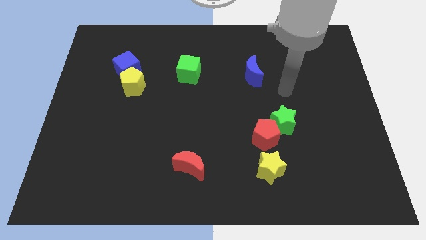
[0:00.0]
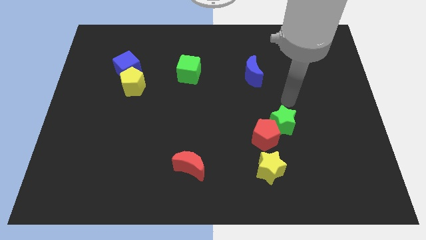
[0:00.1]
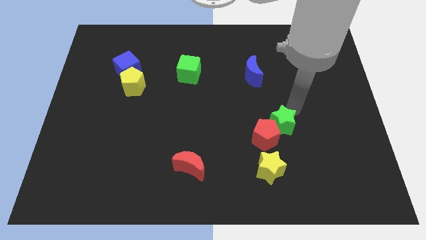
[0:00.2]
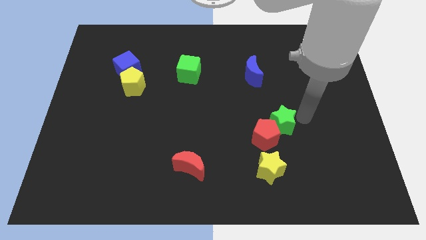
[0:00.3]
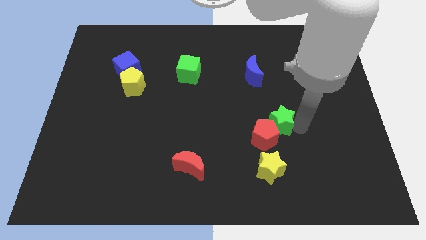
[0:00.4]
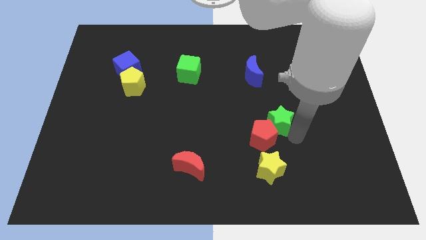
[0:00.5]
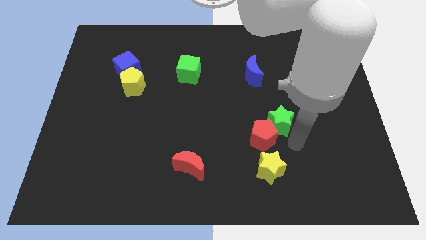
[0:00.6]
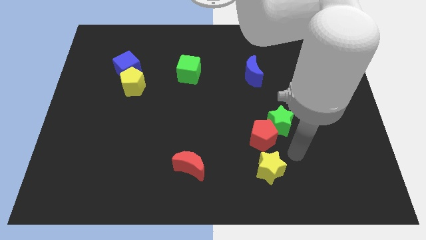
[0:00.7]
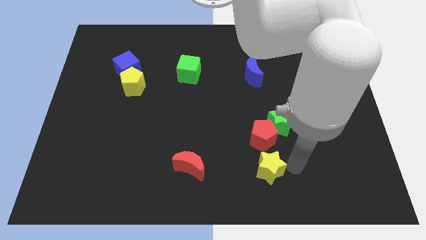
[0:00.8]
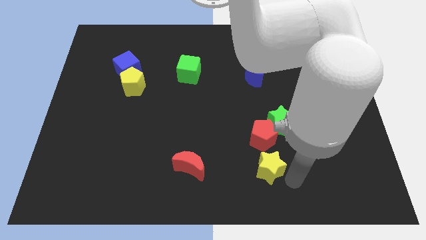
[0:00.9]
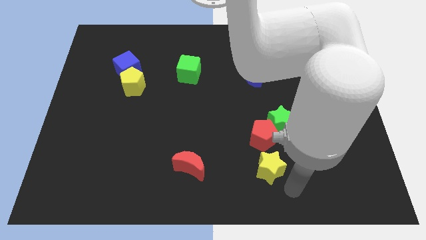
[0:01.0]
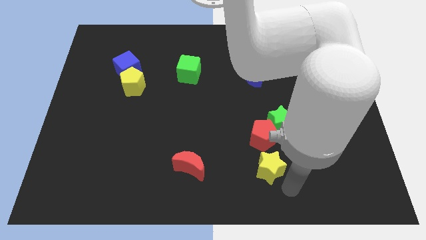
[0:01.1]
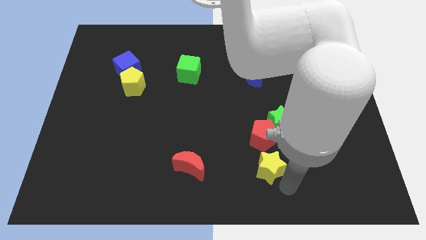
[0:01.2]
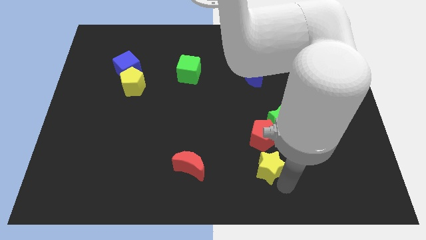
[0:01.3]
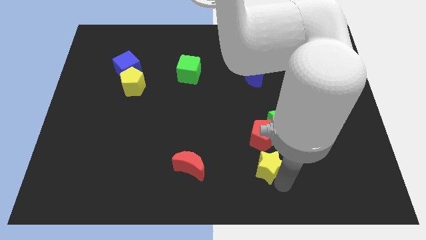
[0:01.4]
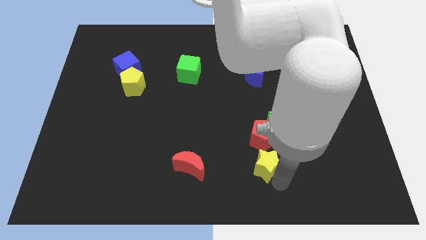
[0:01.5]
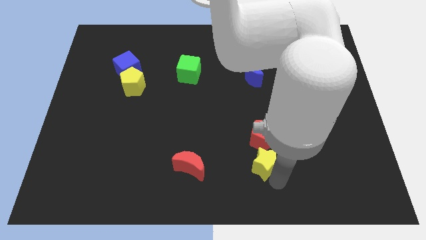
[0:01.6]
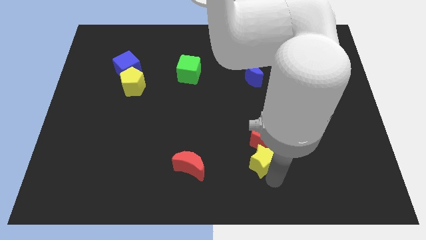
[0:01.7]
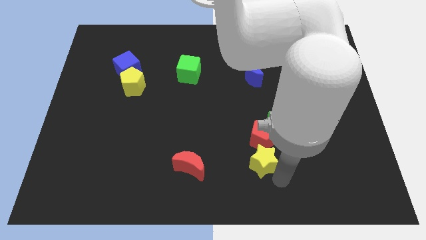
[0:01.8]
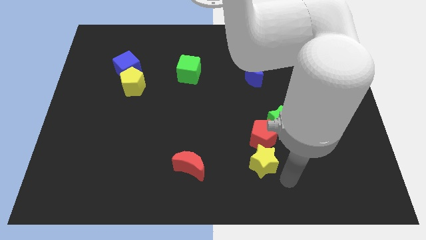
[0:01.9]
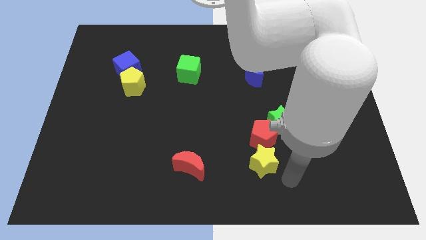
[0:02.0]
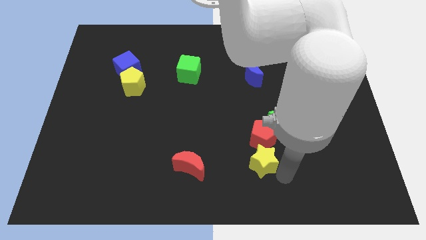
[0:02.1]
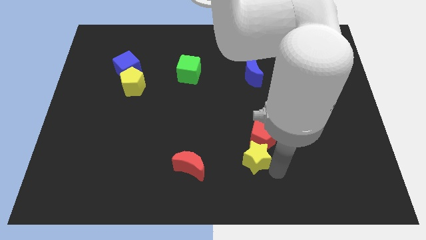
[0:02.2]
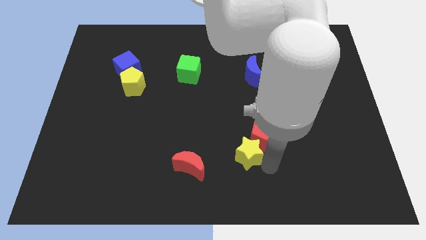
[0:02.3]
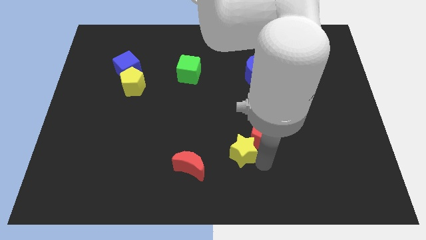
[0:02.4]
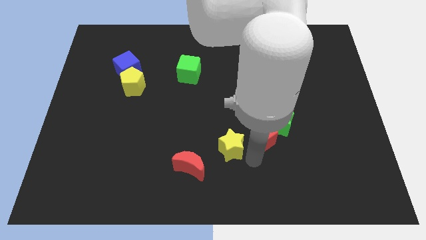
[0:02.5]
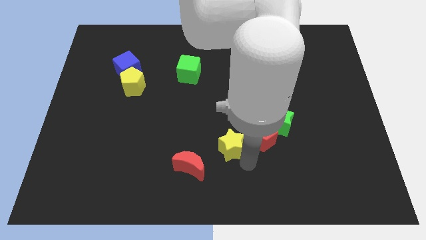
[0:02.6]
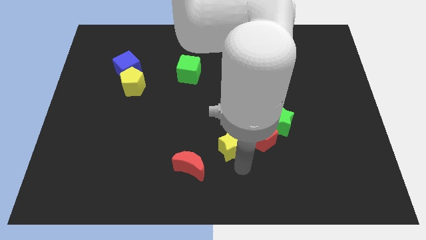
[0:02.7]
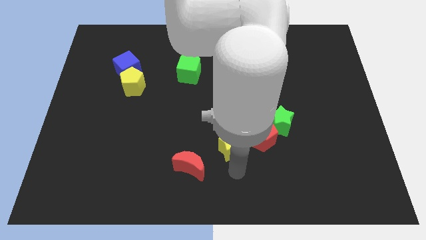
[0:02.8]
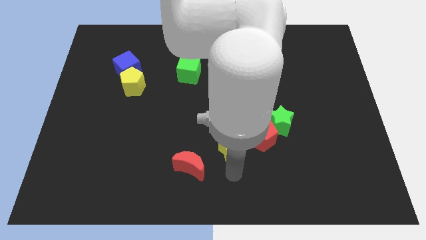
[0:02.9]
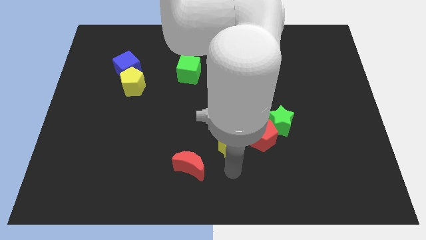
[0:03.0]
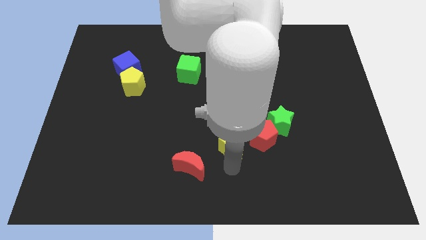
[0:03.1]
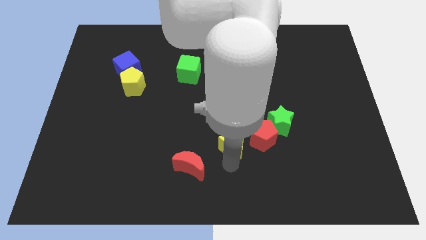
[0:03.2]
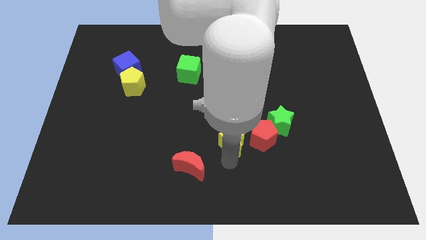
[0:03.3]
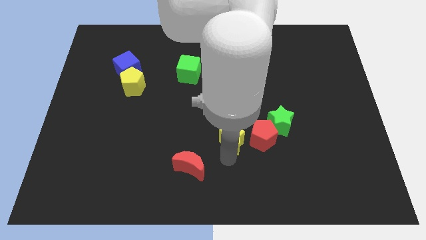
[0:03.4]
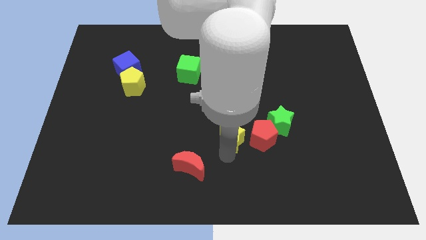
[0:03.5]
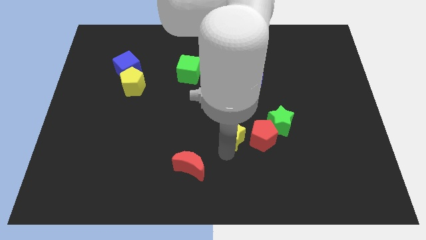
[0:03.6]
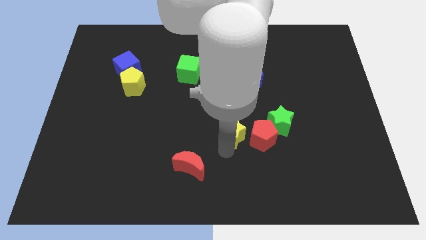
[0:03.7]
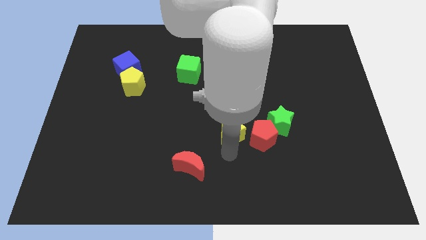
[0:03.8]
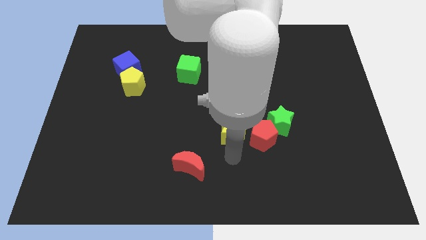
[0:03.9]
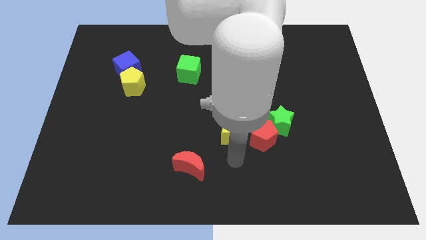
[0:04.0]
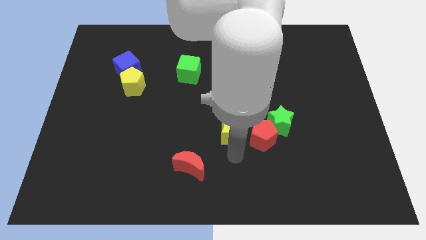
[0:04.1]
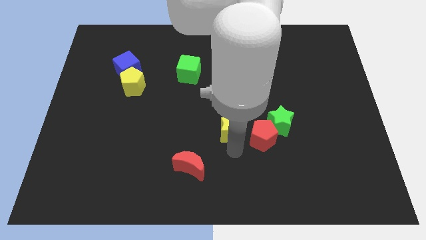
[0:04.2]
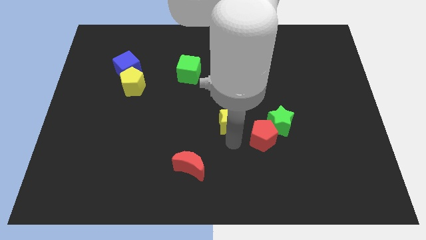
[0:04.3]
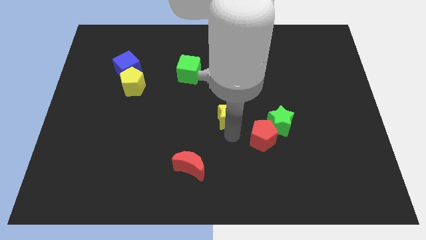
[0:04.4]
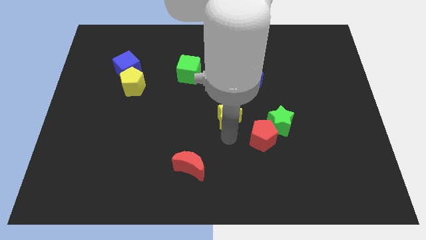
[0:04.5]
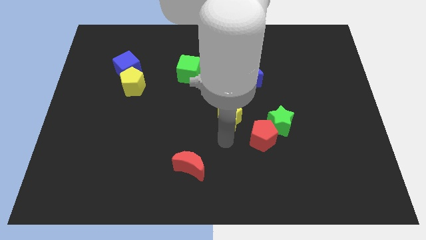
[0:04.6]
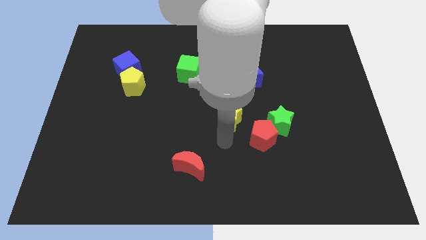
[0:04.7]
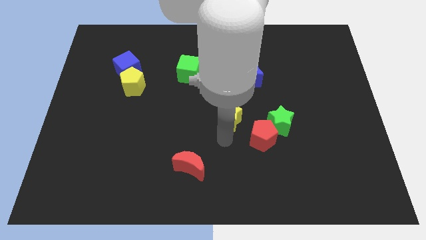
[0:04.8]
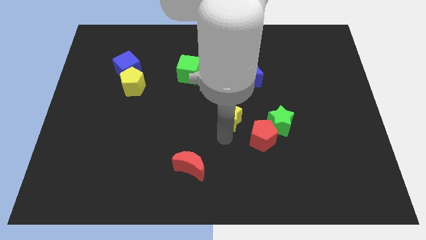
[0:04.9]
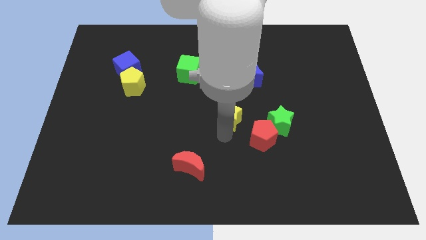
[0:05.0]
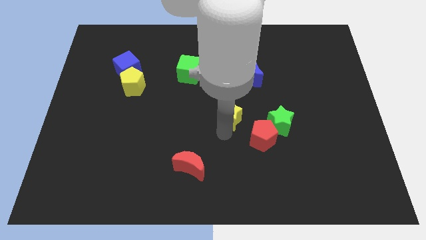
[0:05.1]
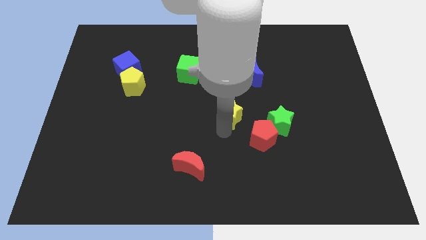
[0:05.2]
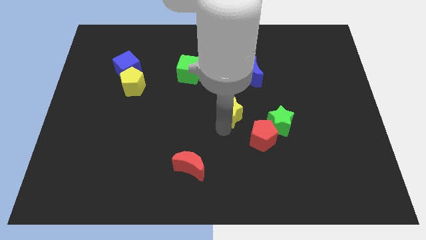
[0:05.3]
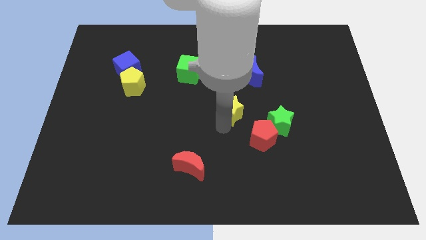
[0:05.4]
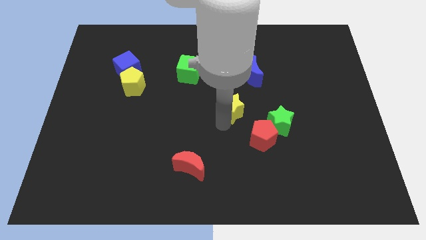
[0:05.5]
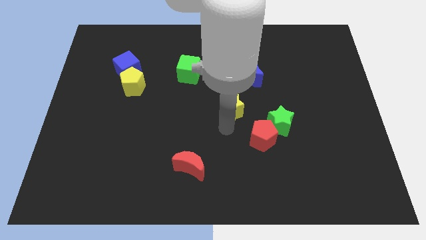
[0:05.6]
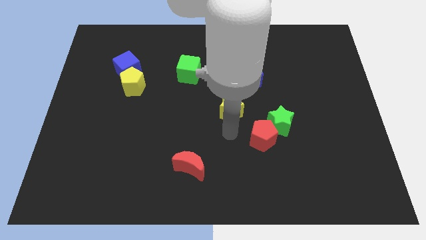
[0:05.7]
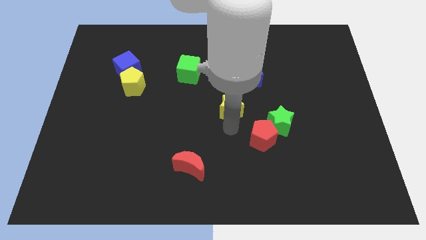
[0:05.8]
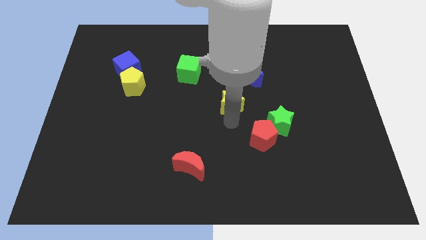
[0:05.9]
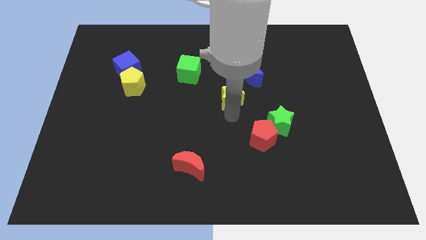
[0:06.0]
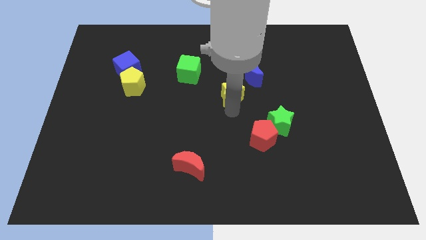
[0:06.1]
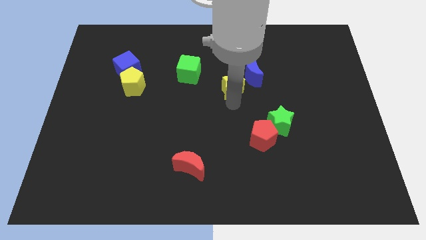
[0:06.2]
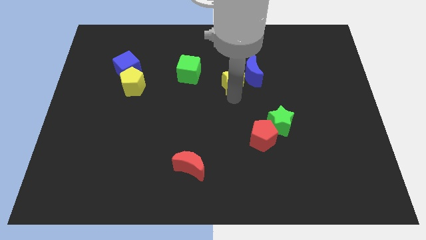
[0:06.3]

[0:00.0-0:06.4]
slide the yellow star to the right of the green cube

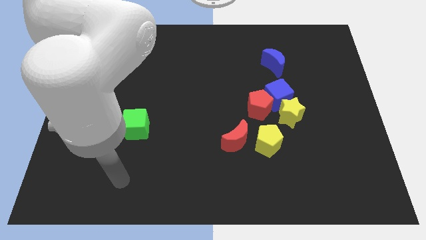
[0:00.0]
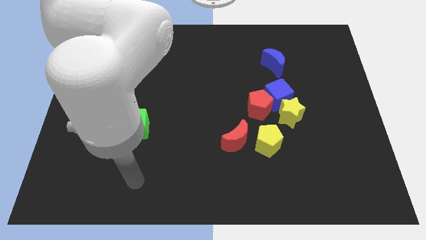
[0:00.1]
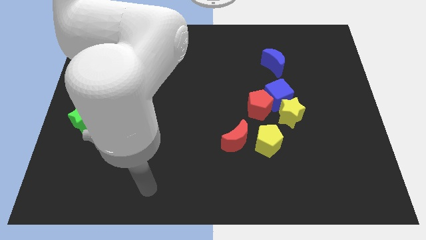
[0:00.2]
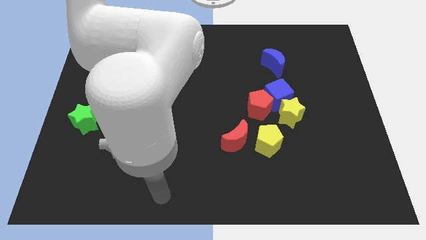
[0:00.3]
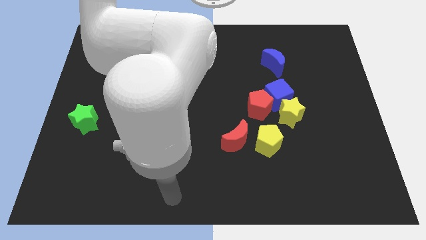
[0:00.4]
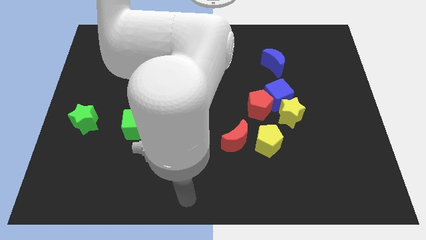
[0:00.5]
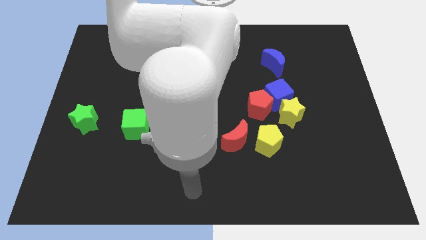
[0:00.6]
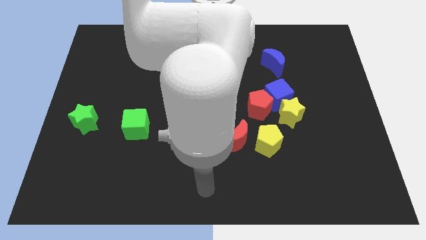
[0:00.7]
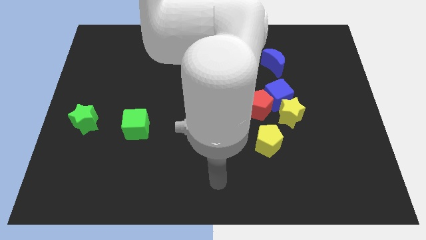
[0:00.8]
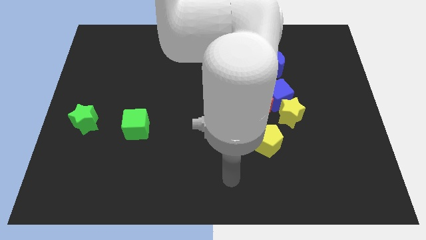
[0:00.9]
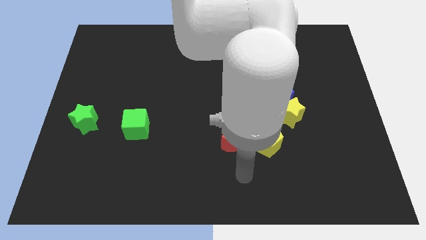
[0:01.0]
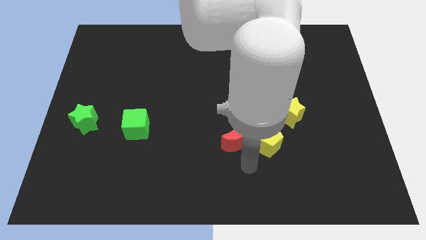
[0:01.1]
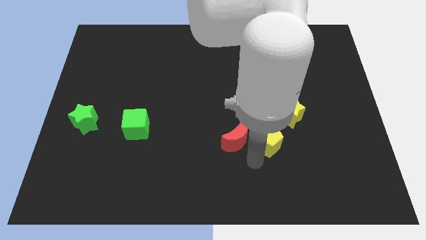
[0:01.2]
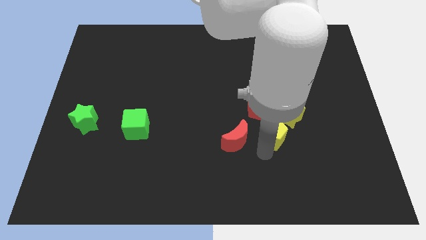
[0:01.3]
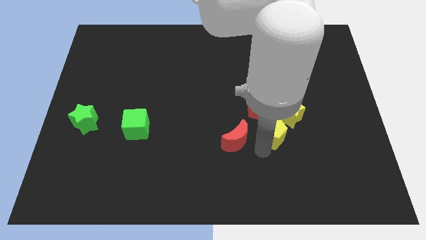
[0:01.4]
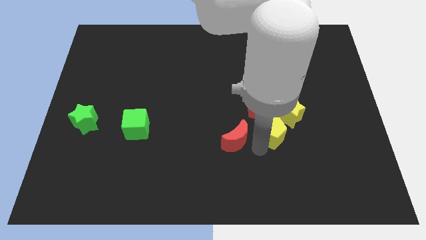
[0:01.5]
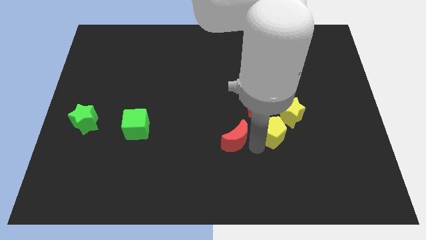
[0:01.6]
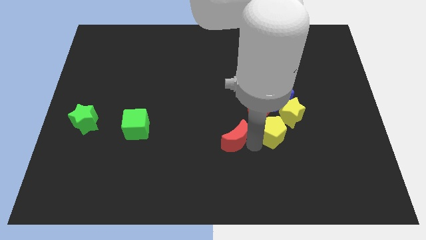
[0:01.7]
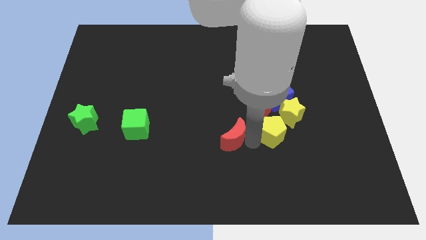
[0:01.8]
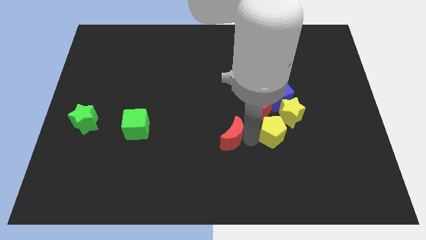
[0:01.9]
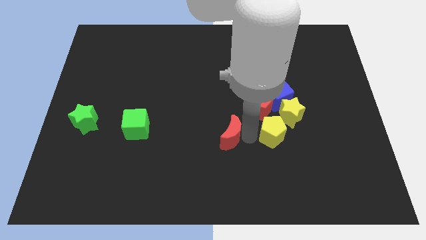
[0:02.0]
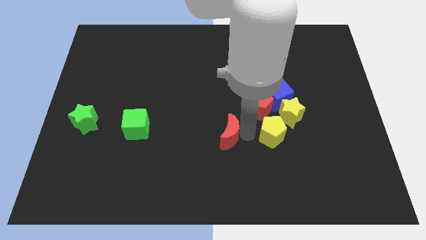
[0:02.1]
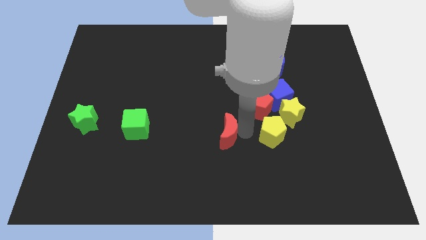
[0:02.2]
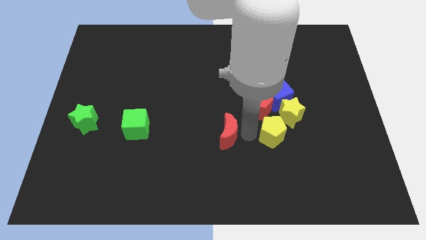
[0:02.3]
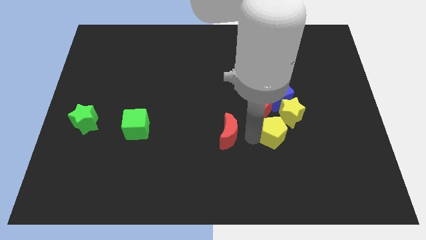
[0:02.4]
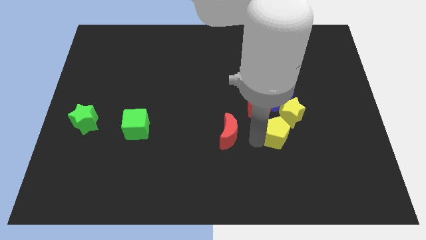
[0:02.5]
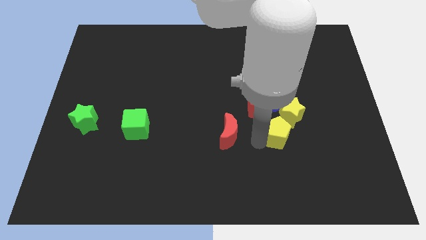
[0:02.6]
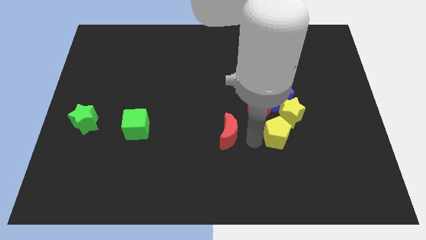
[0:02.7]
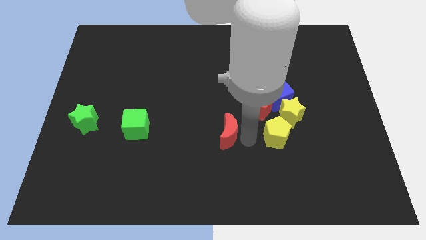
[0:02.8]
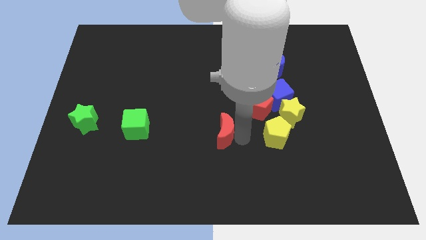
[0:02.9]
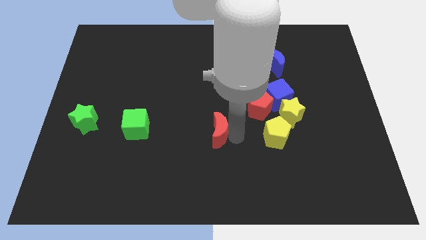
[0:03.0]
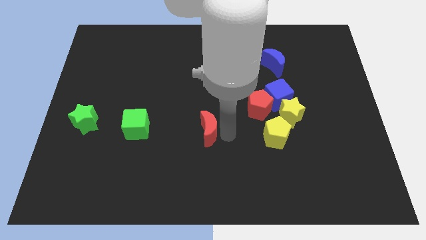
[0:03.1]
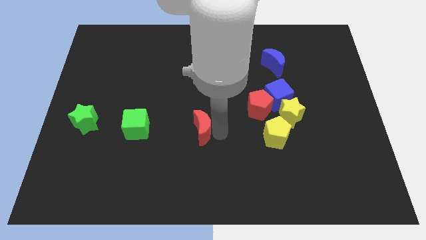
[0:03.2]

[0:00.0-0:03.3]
push the red moon just right of the green cube
